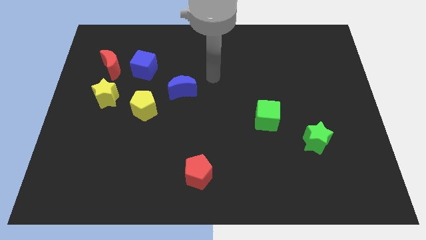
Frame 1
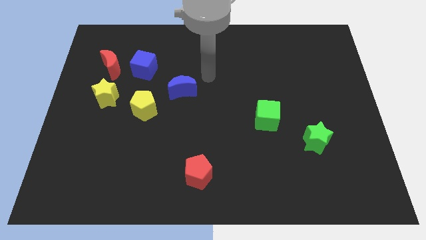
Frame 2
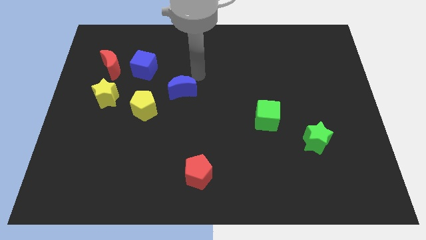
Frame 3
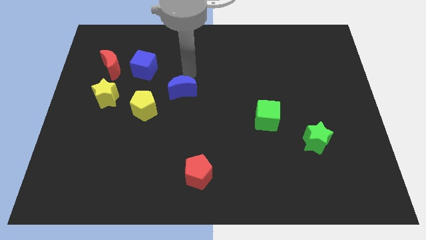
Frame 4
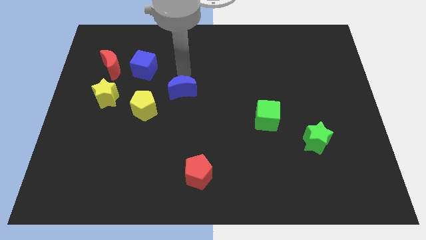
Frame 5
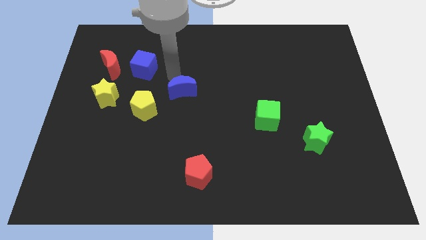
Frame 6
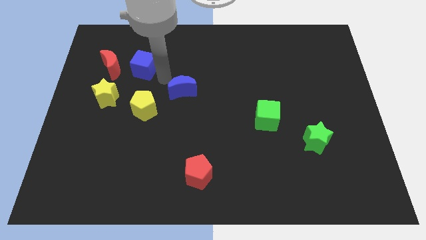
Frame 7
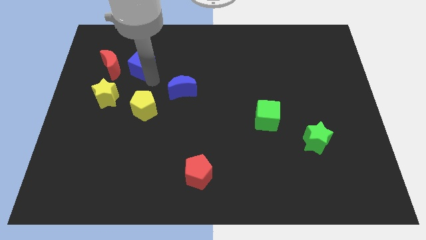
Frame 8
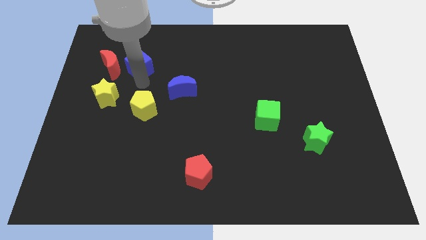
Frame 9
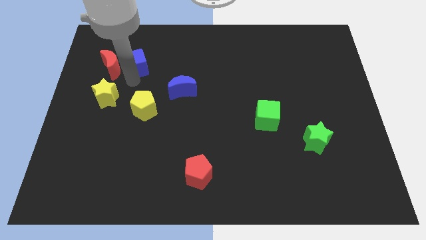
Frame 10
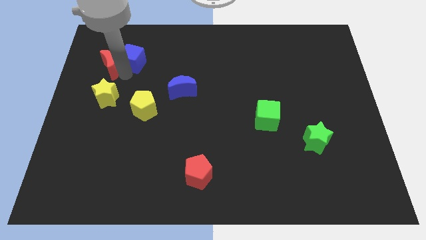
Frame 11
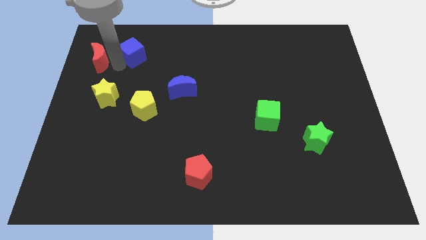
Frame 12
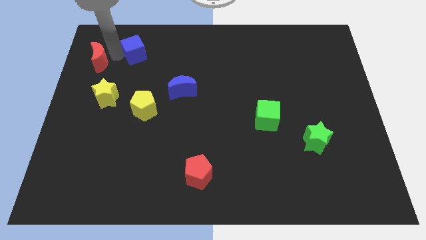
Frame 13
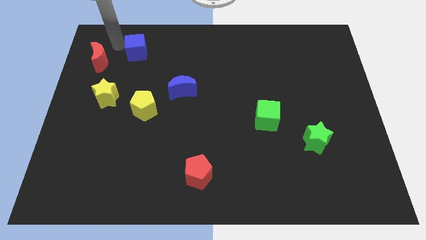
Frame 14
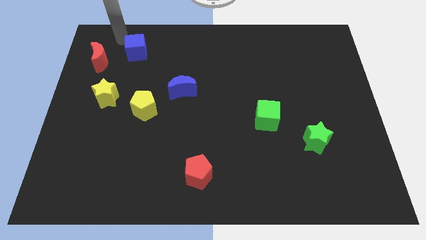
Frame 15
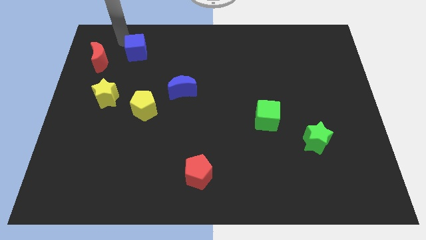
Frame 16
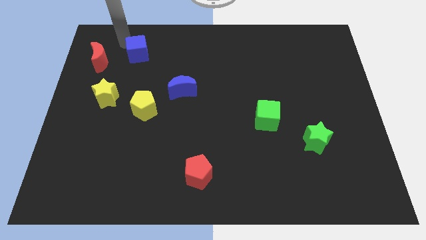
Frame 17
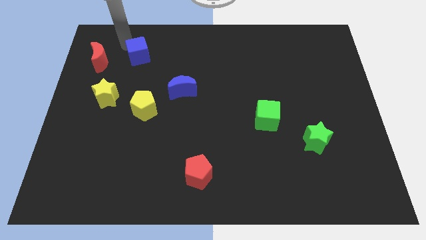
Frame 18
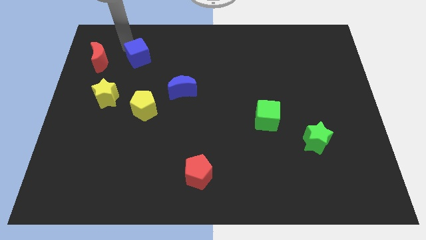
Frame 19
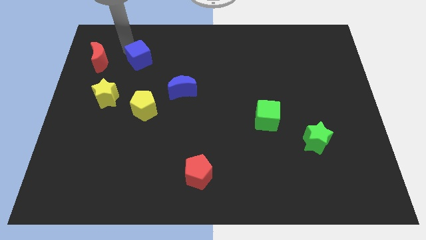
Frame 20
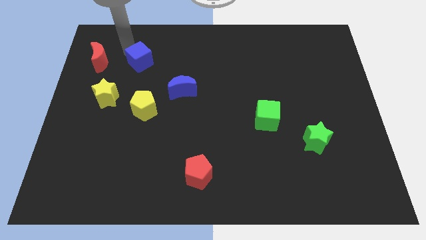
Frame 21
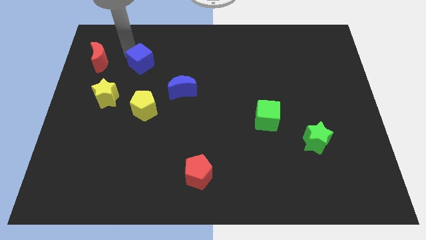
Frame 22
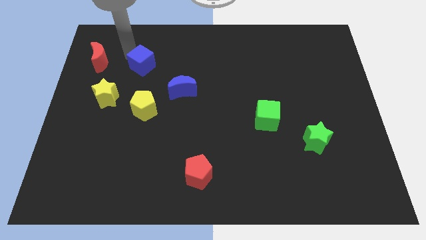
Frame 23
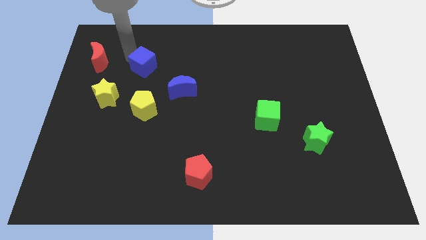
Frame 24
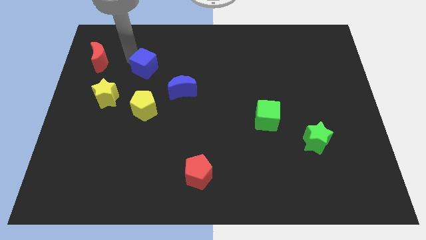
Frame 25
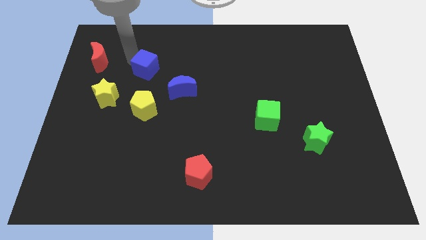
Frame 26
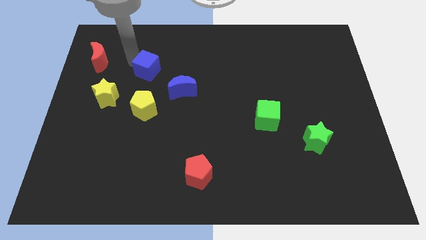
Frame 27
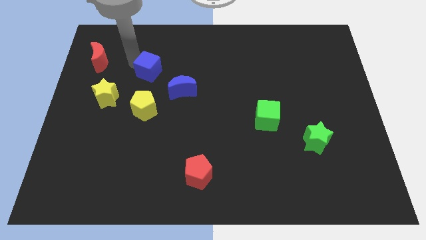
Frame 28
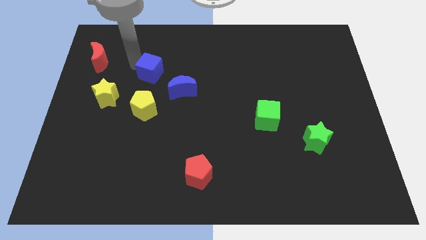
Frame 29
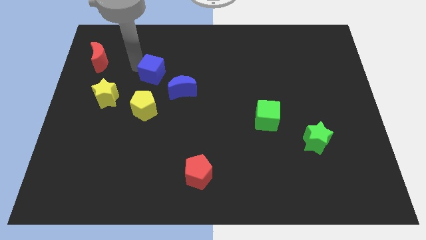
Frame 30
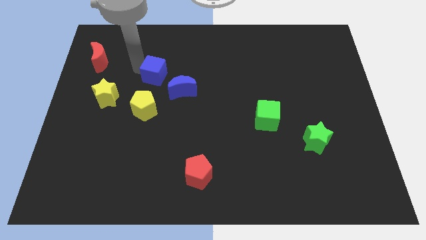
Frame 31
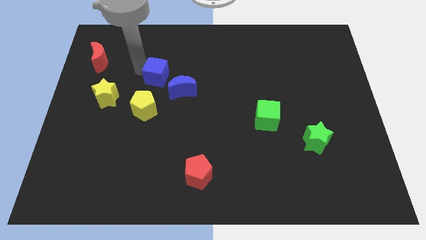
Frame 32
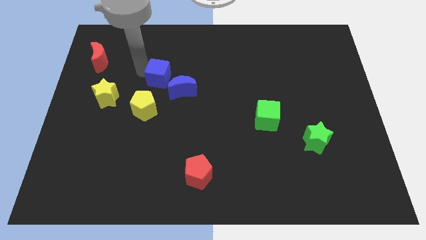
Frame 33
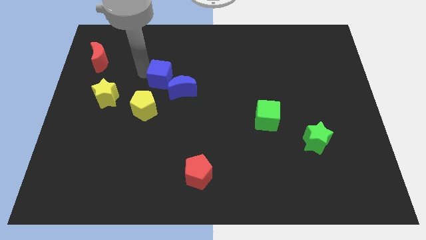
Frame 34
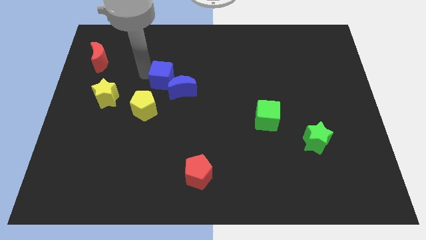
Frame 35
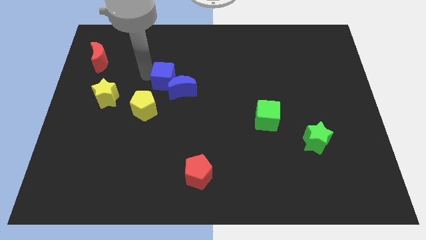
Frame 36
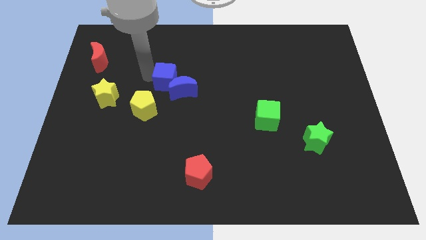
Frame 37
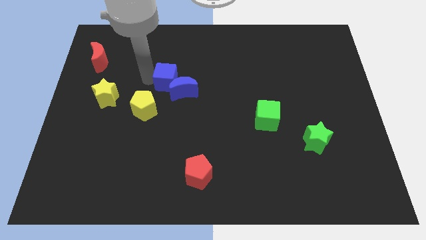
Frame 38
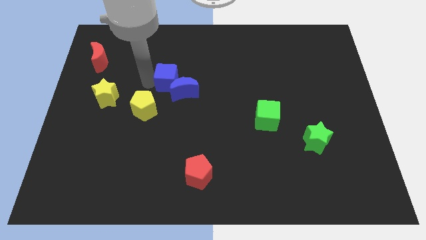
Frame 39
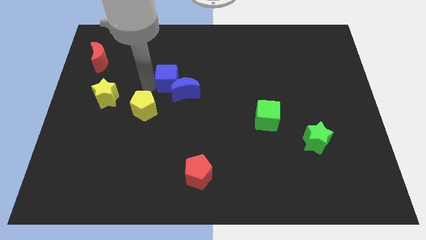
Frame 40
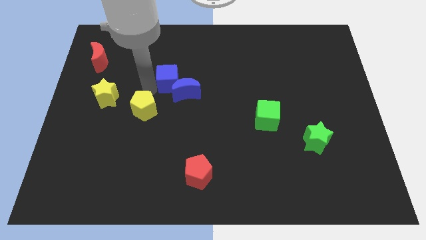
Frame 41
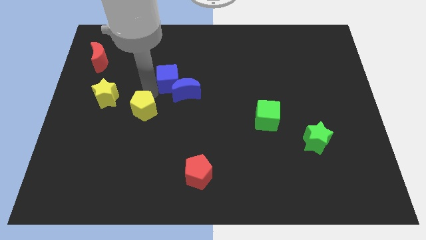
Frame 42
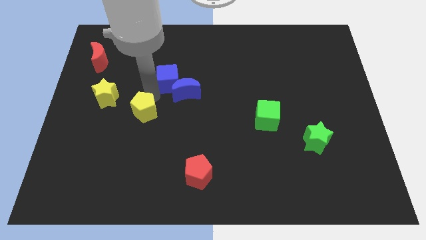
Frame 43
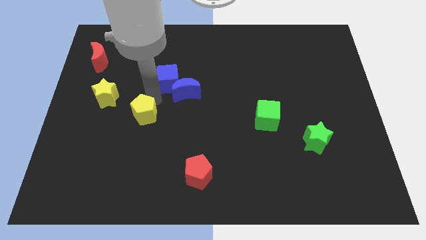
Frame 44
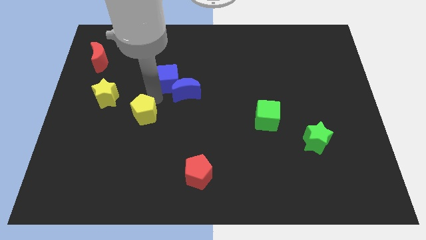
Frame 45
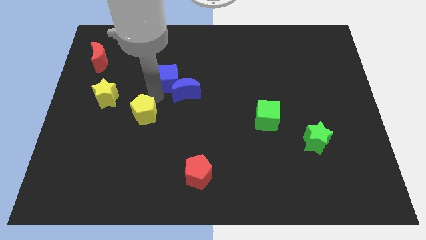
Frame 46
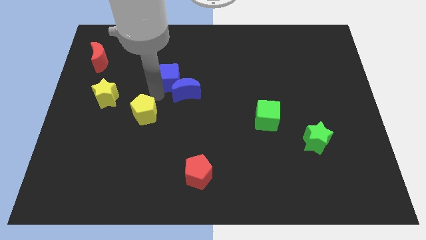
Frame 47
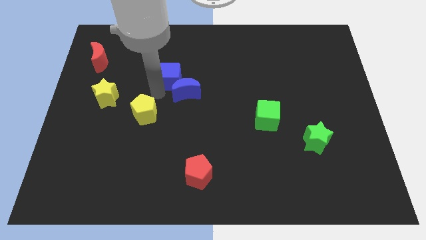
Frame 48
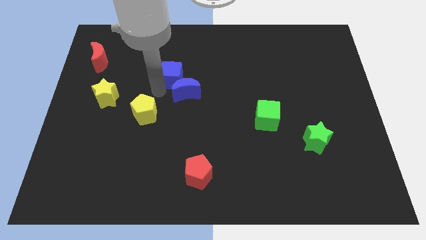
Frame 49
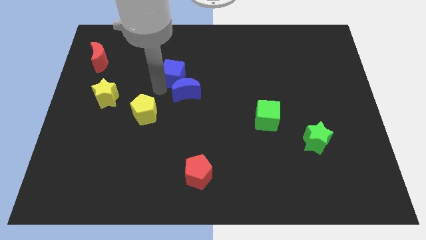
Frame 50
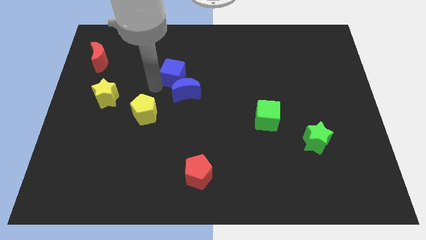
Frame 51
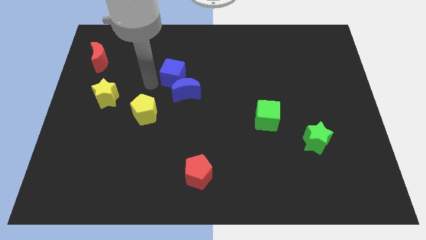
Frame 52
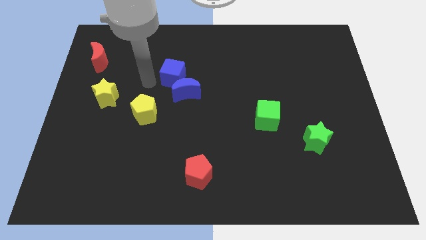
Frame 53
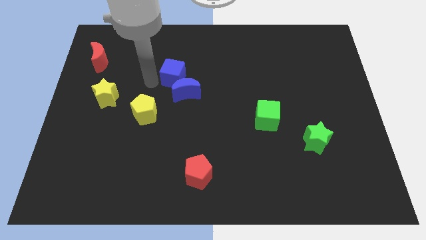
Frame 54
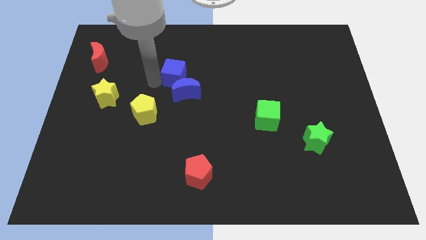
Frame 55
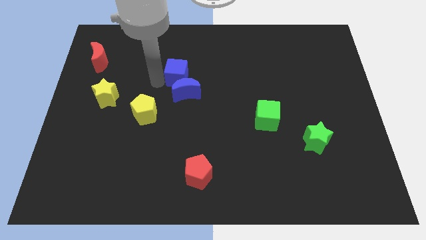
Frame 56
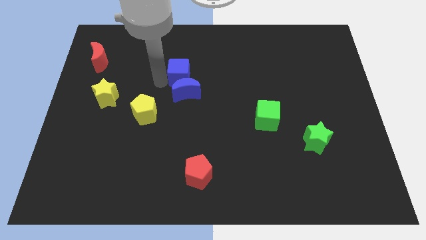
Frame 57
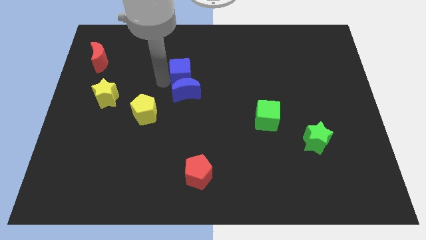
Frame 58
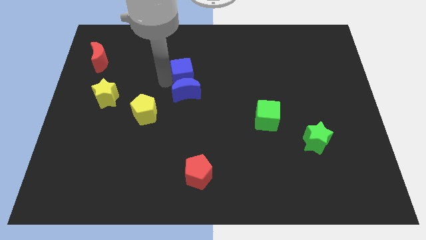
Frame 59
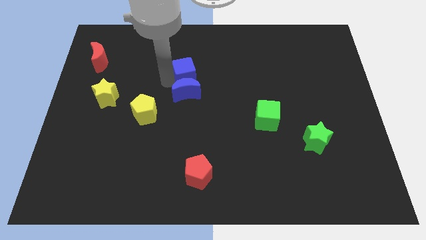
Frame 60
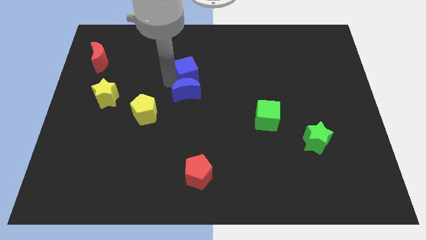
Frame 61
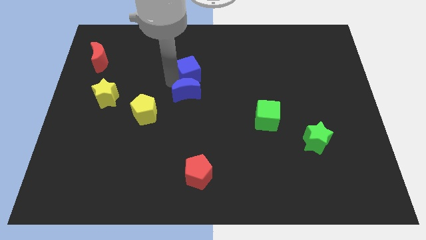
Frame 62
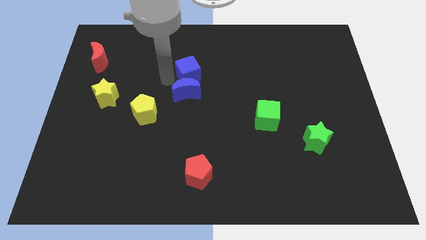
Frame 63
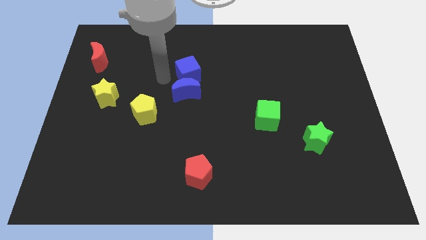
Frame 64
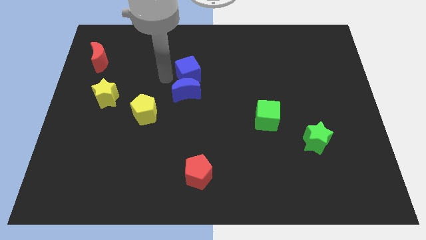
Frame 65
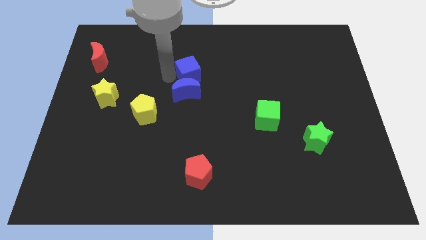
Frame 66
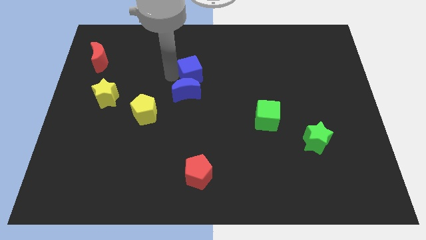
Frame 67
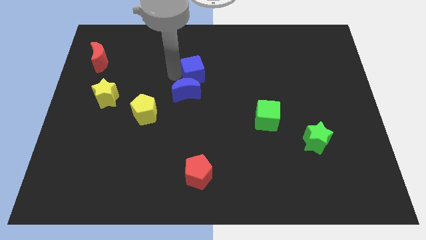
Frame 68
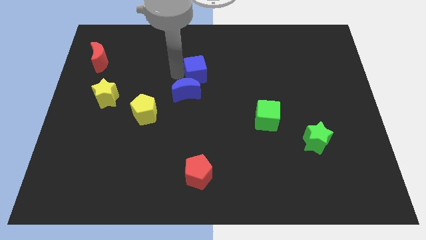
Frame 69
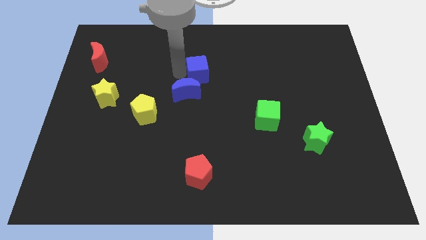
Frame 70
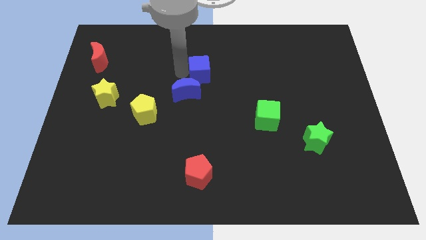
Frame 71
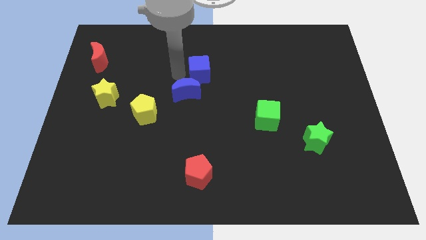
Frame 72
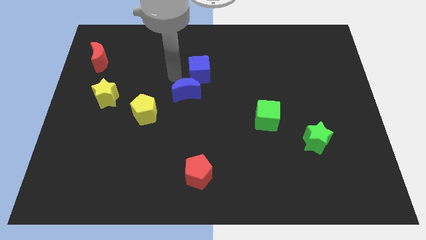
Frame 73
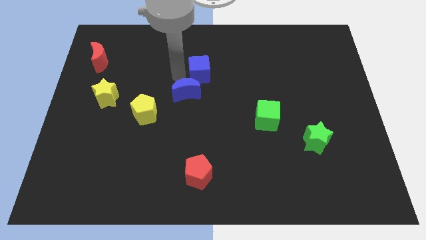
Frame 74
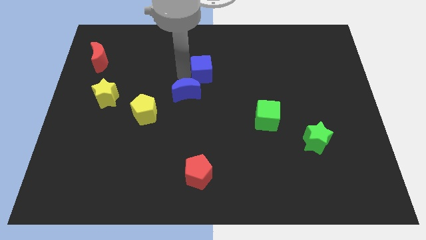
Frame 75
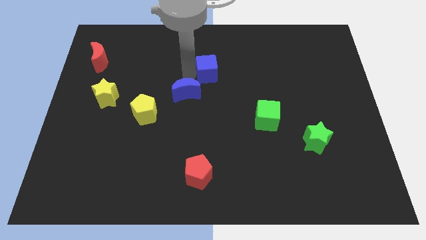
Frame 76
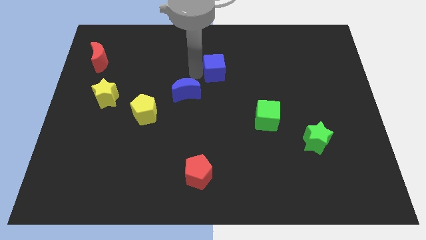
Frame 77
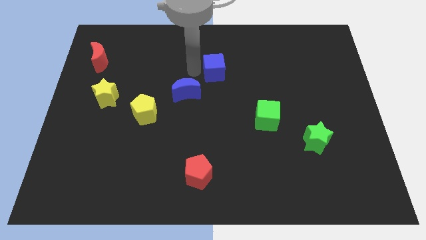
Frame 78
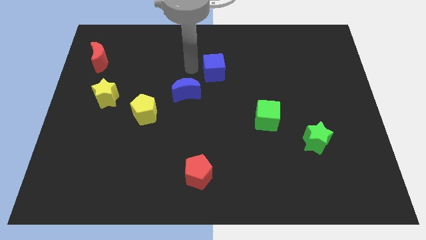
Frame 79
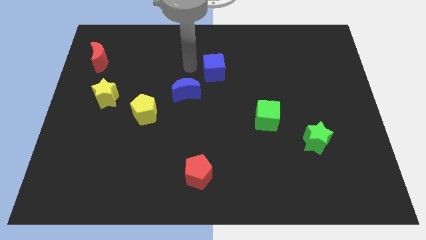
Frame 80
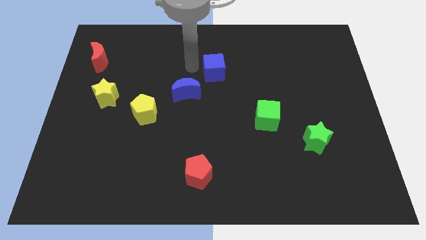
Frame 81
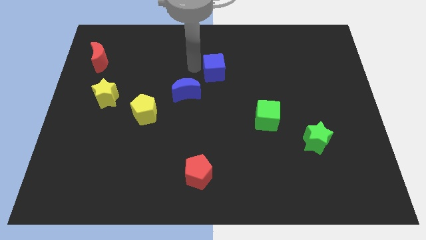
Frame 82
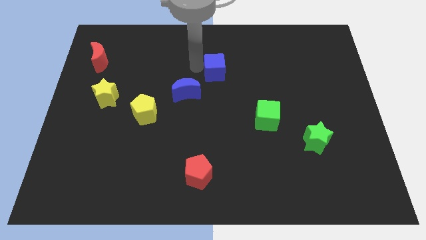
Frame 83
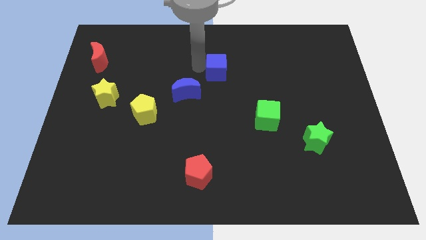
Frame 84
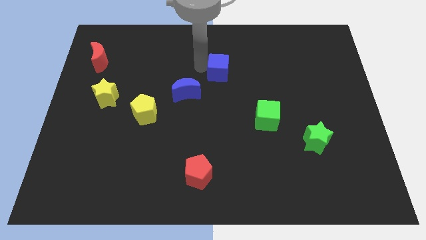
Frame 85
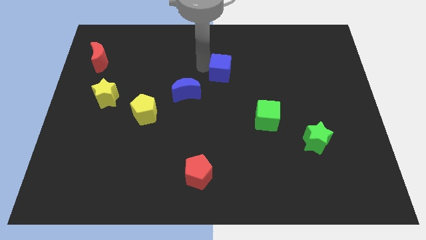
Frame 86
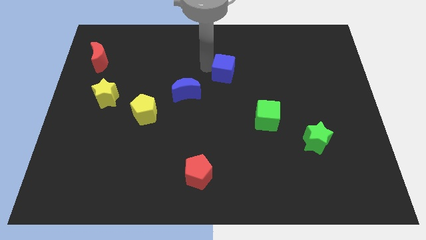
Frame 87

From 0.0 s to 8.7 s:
move the blue cube to the right
